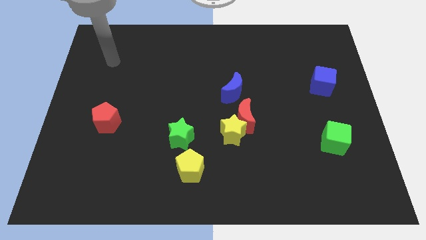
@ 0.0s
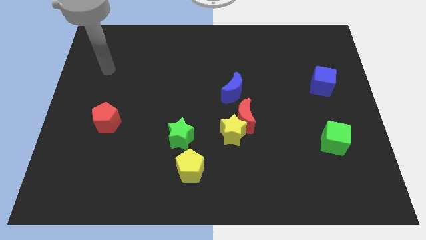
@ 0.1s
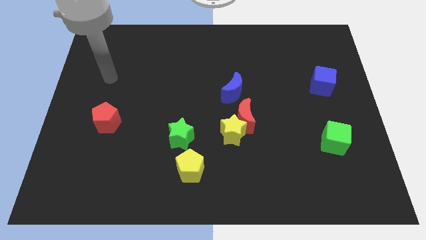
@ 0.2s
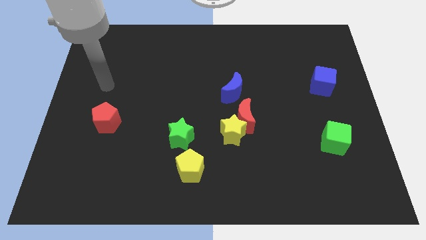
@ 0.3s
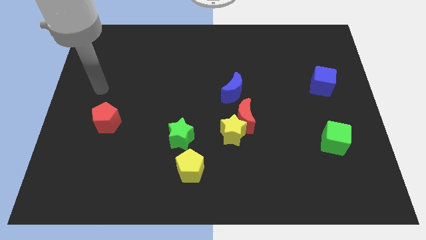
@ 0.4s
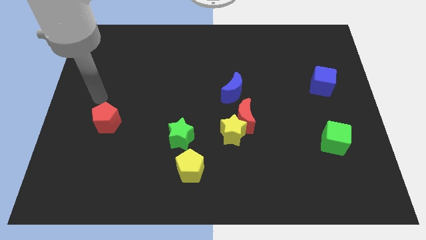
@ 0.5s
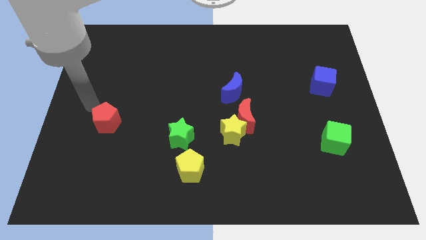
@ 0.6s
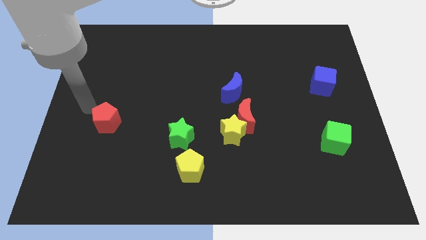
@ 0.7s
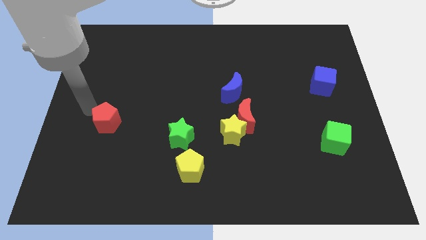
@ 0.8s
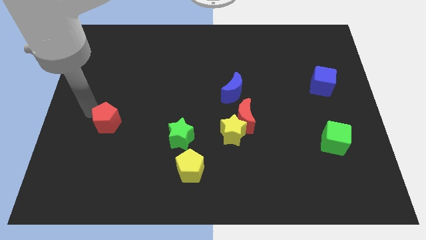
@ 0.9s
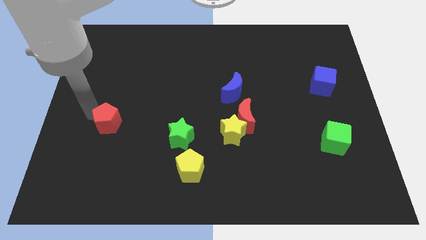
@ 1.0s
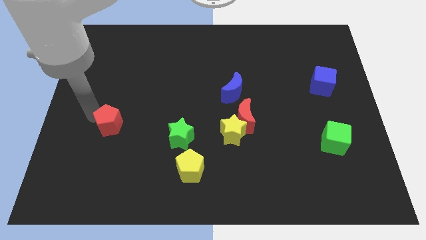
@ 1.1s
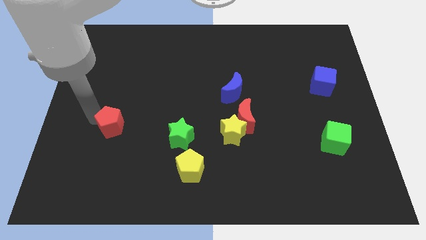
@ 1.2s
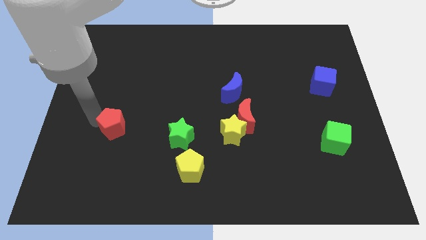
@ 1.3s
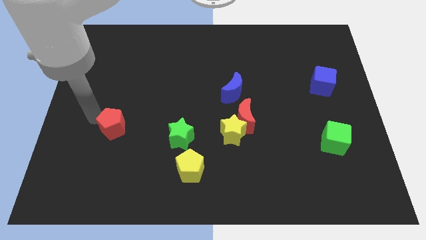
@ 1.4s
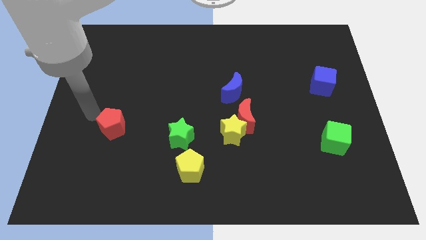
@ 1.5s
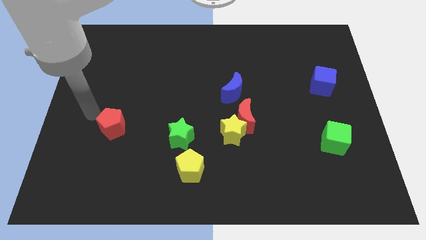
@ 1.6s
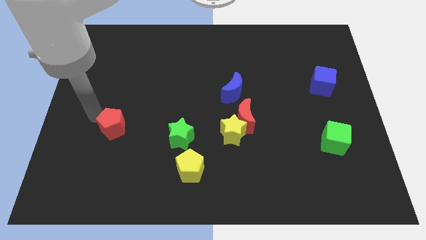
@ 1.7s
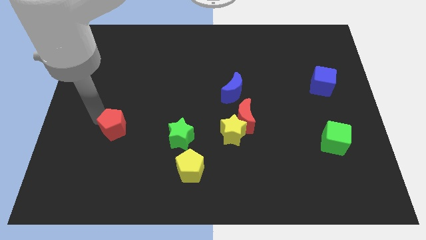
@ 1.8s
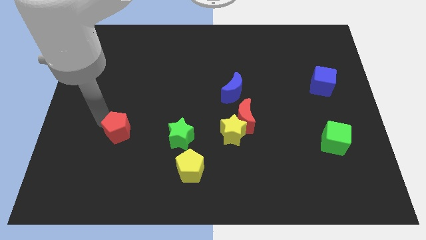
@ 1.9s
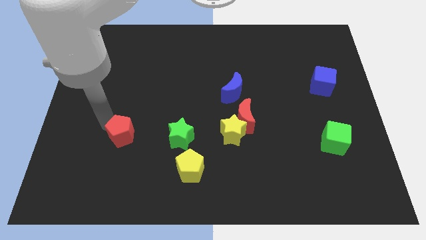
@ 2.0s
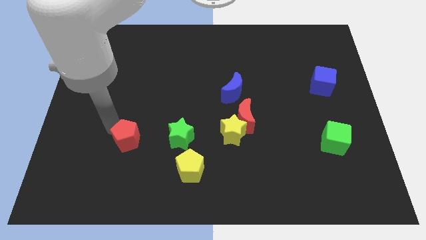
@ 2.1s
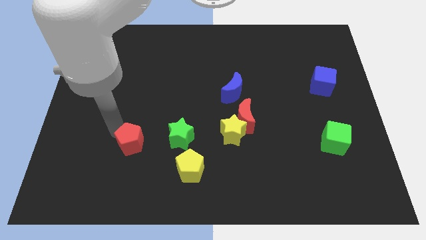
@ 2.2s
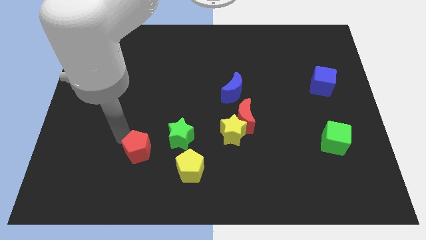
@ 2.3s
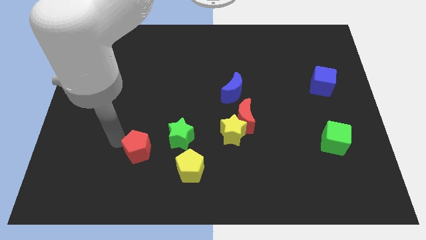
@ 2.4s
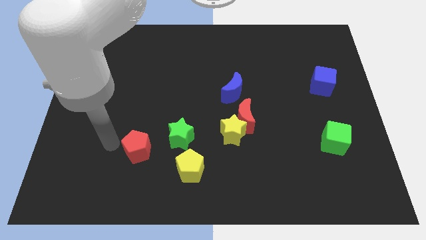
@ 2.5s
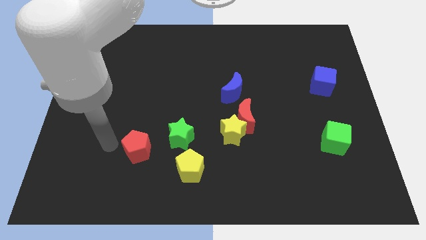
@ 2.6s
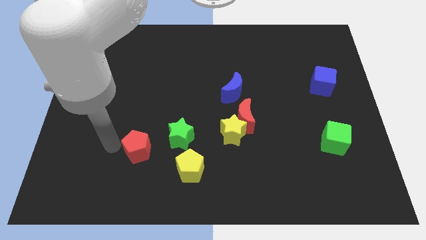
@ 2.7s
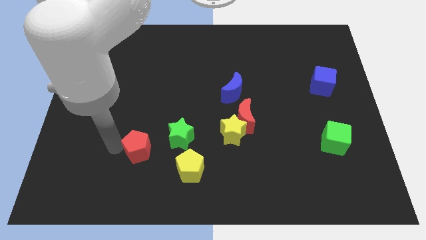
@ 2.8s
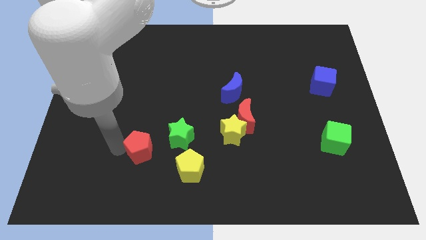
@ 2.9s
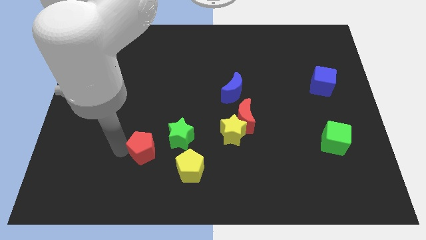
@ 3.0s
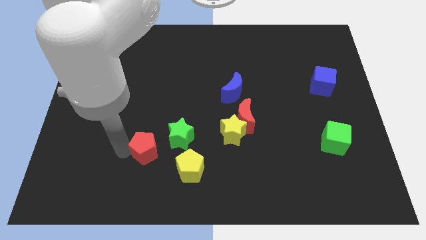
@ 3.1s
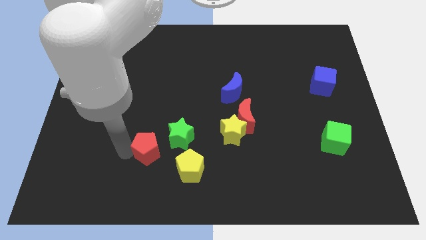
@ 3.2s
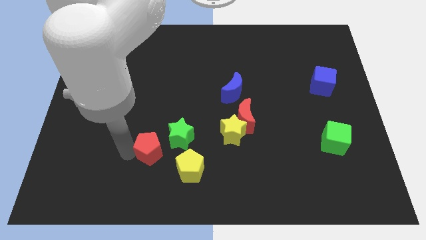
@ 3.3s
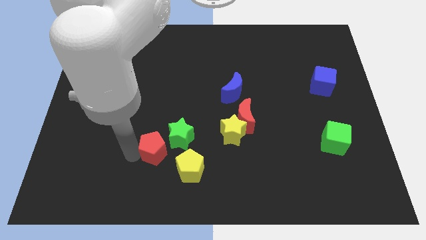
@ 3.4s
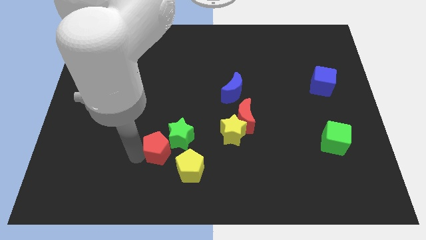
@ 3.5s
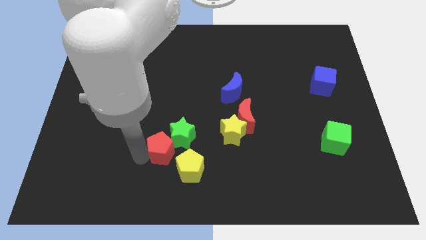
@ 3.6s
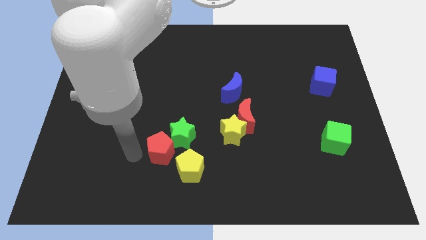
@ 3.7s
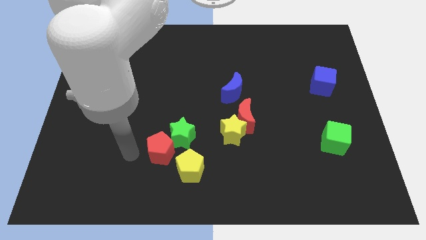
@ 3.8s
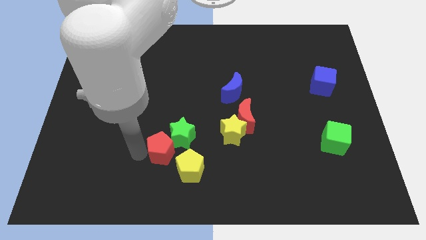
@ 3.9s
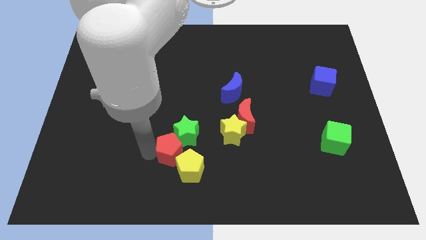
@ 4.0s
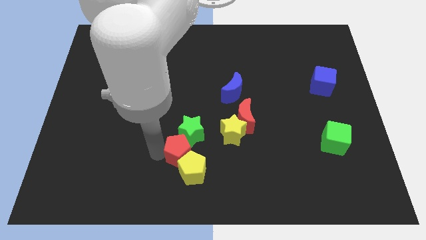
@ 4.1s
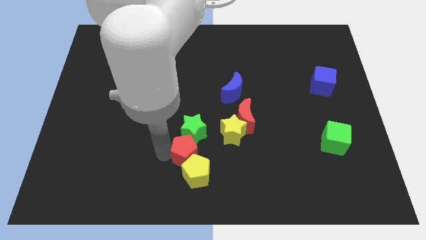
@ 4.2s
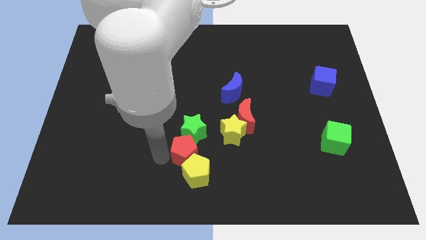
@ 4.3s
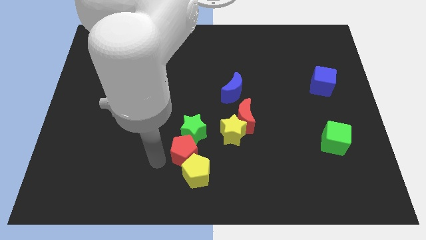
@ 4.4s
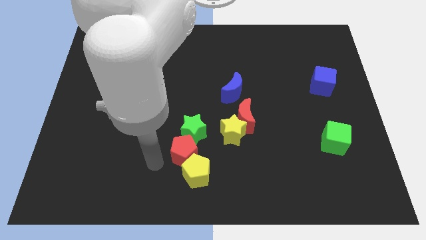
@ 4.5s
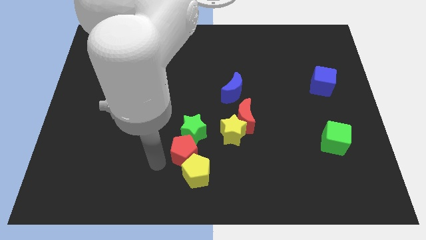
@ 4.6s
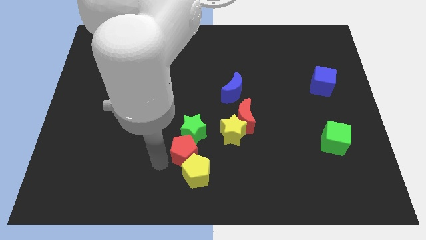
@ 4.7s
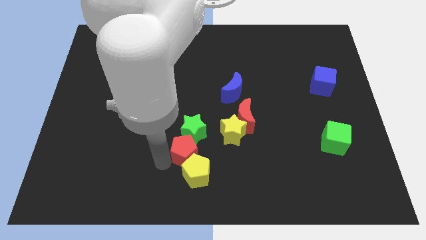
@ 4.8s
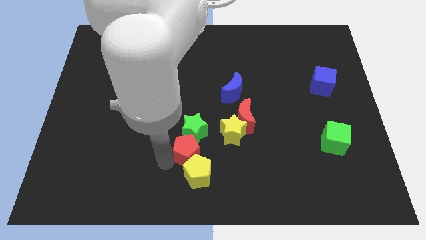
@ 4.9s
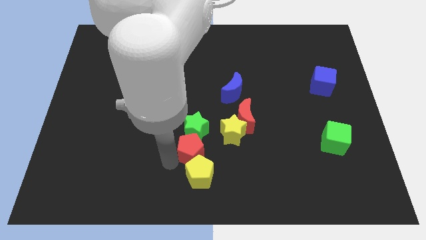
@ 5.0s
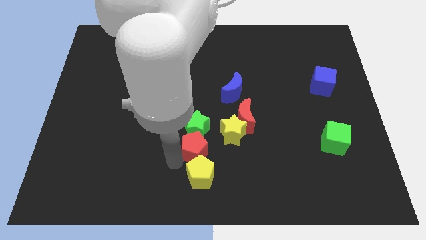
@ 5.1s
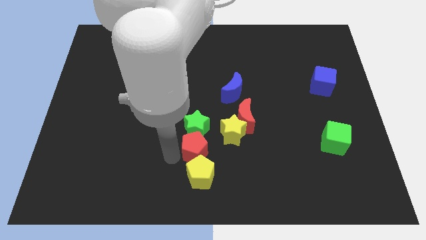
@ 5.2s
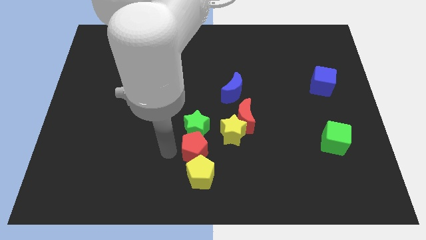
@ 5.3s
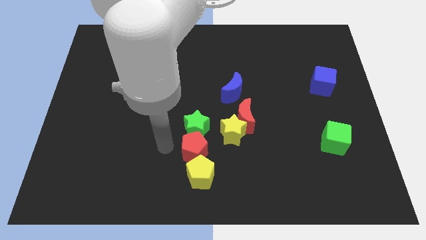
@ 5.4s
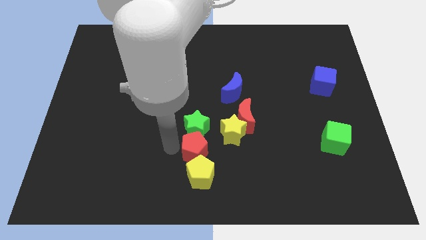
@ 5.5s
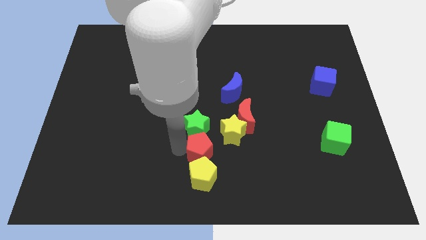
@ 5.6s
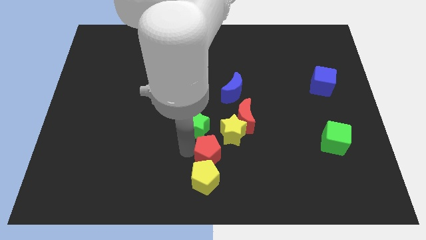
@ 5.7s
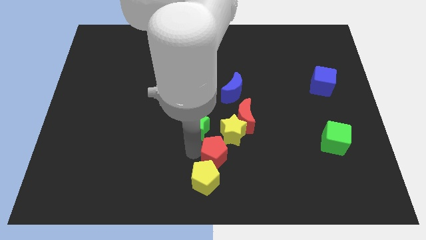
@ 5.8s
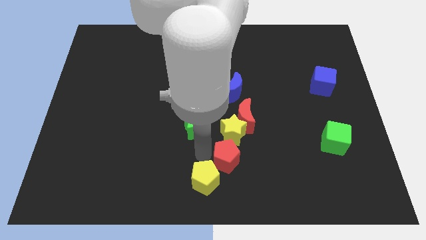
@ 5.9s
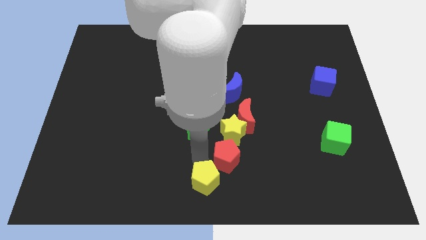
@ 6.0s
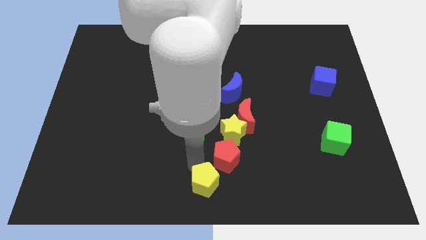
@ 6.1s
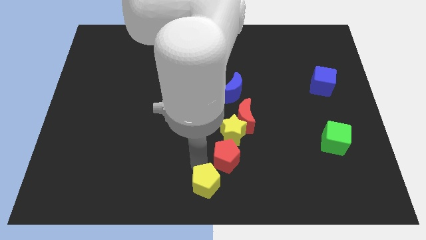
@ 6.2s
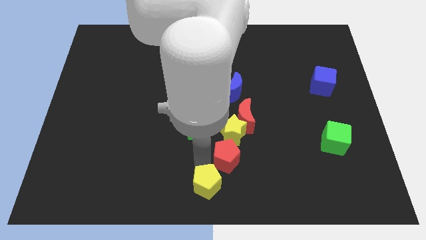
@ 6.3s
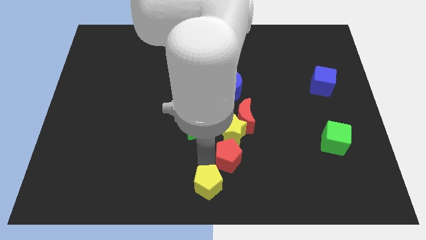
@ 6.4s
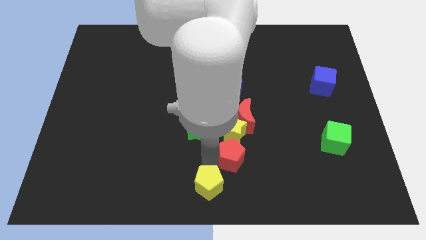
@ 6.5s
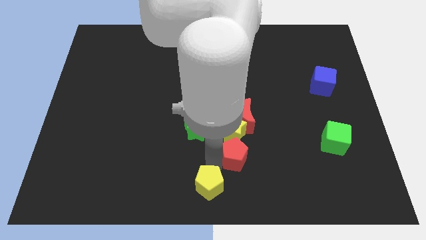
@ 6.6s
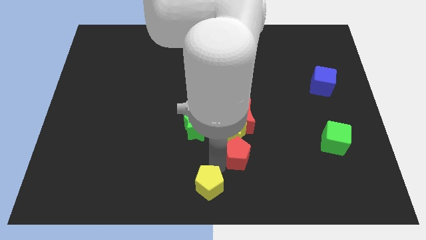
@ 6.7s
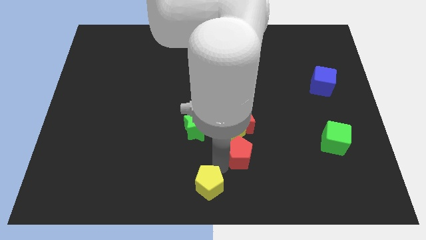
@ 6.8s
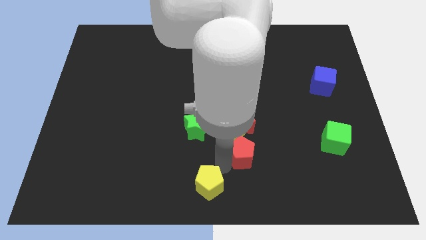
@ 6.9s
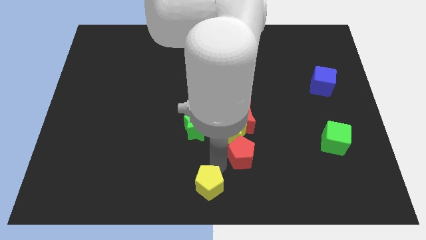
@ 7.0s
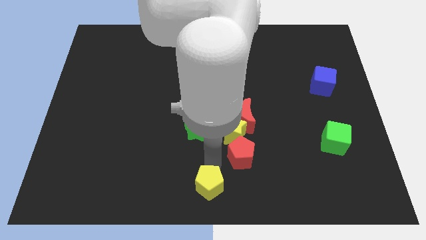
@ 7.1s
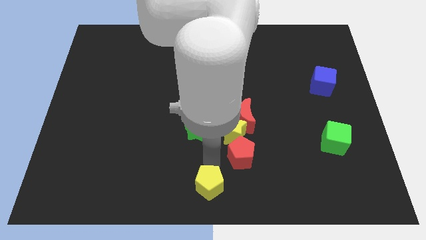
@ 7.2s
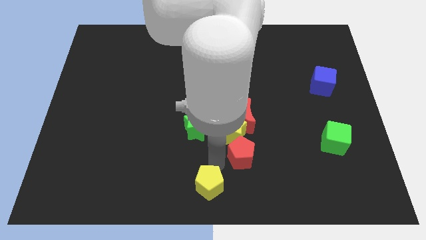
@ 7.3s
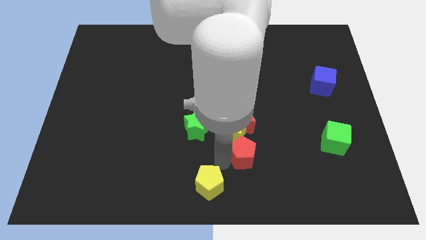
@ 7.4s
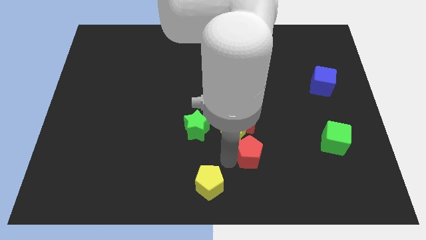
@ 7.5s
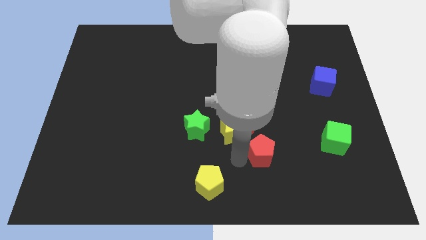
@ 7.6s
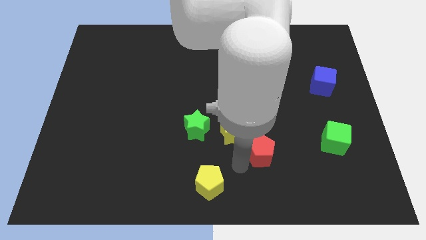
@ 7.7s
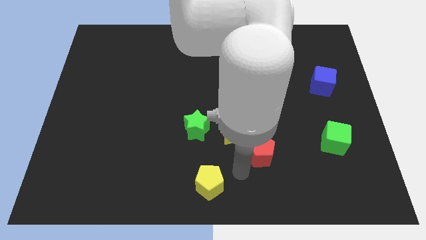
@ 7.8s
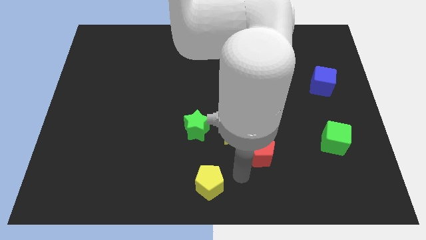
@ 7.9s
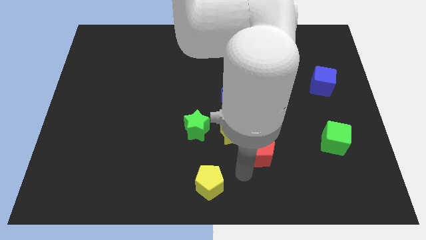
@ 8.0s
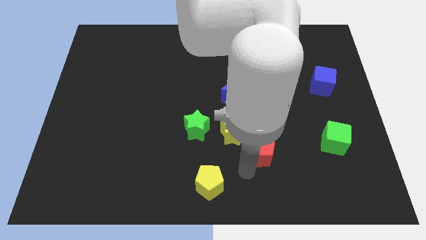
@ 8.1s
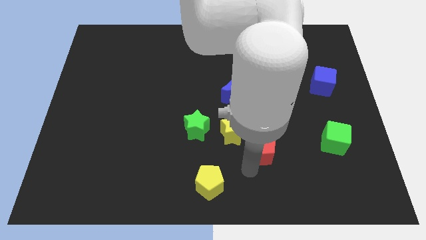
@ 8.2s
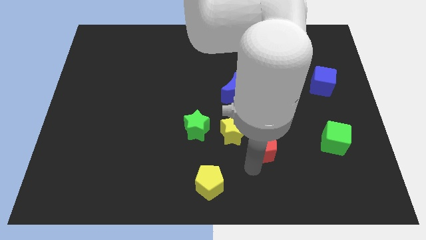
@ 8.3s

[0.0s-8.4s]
slide the red pentagon right of the yellow star
